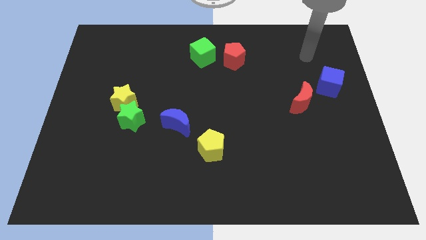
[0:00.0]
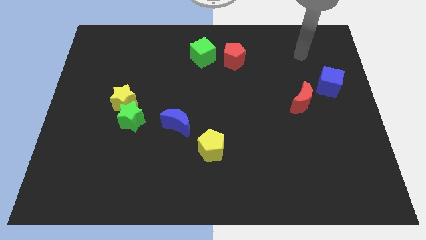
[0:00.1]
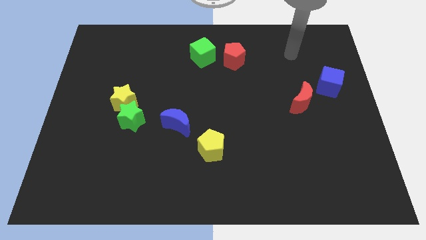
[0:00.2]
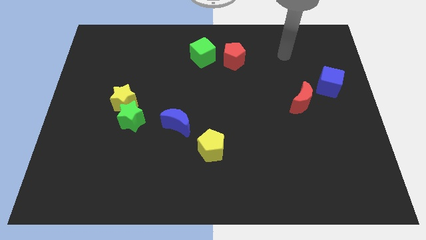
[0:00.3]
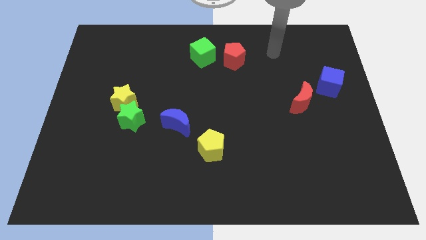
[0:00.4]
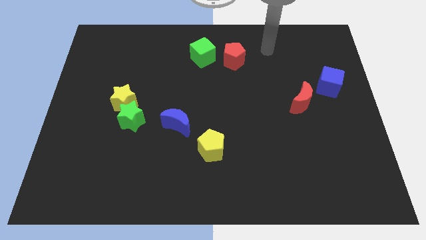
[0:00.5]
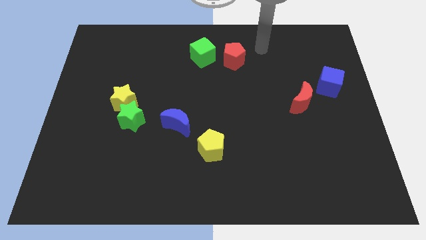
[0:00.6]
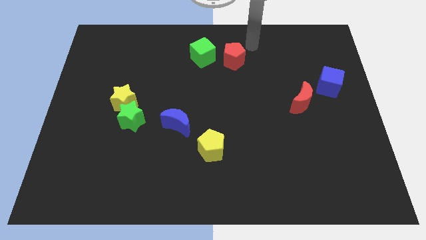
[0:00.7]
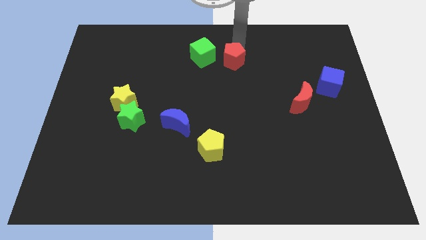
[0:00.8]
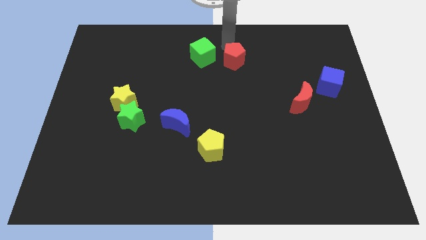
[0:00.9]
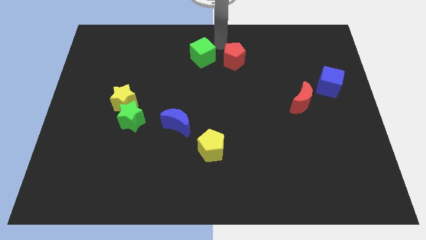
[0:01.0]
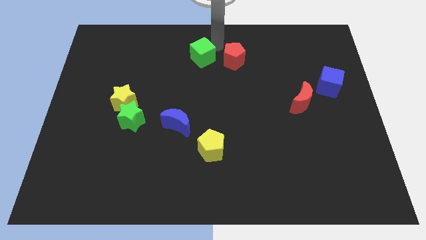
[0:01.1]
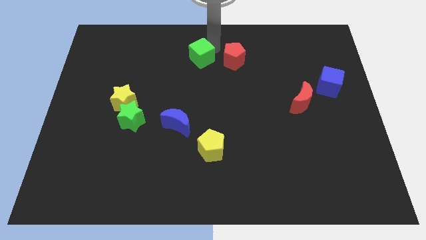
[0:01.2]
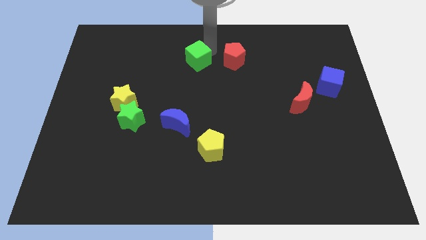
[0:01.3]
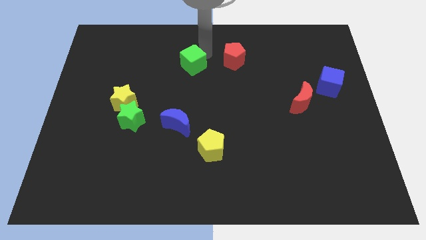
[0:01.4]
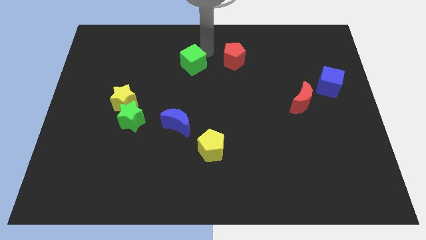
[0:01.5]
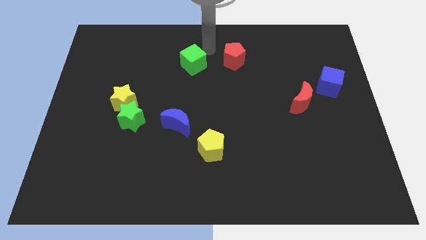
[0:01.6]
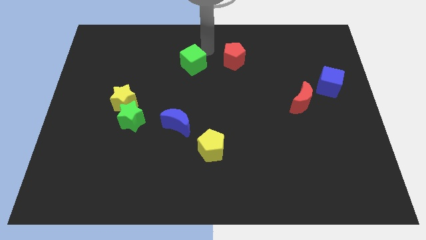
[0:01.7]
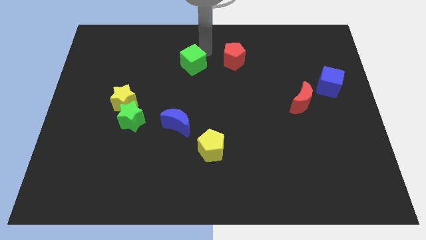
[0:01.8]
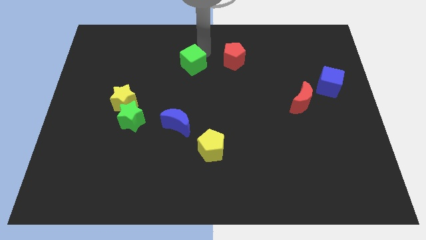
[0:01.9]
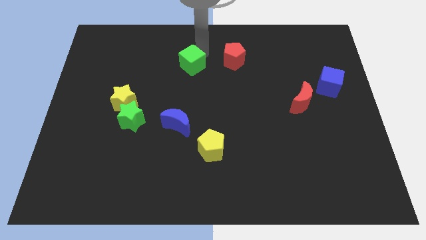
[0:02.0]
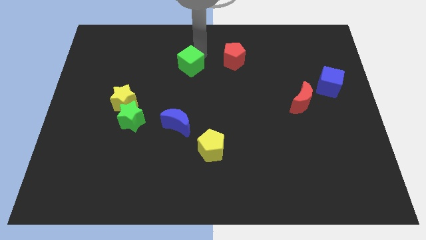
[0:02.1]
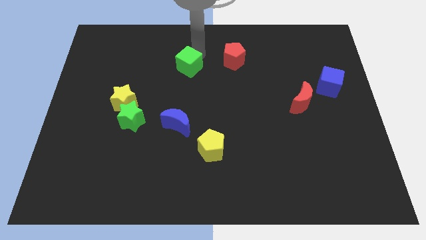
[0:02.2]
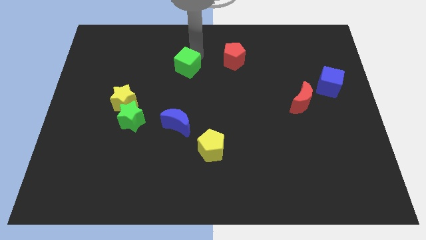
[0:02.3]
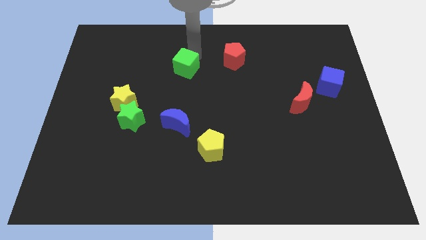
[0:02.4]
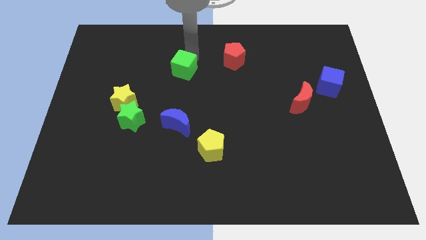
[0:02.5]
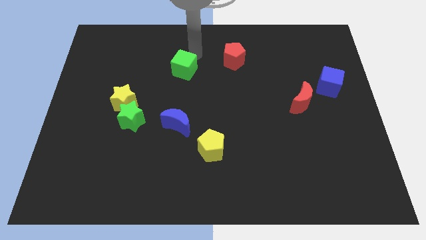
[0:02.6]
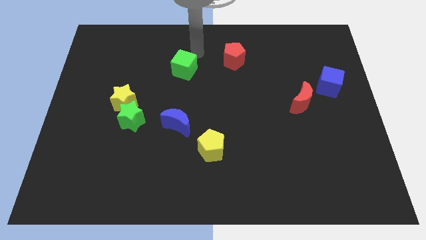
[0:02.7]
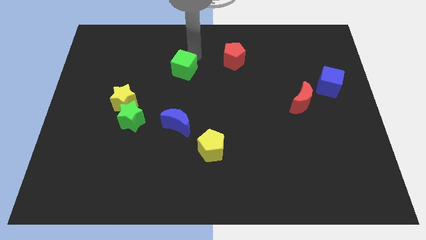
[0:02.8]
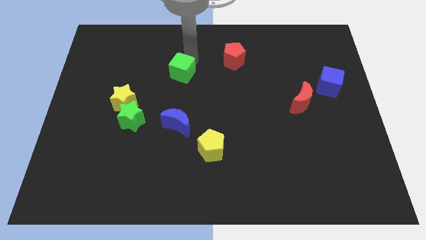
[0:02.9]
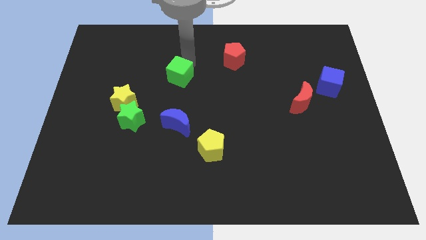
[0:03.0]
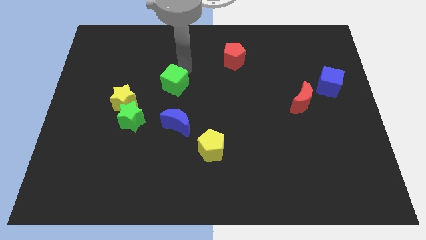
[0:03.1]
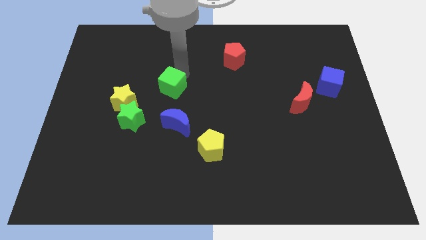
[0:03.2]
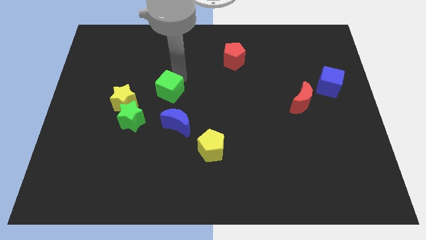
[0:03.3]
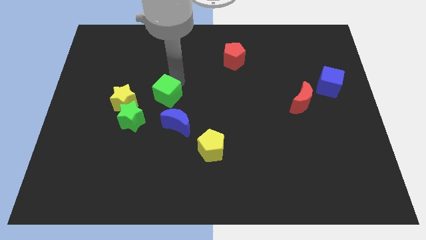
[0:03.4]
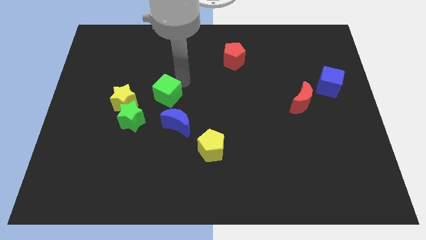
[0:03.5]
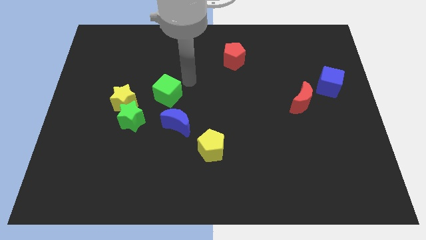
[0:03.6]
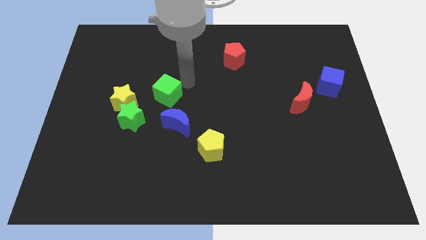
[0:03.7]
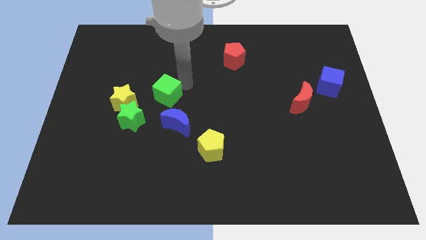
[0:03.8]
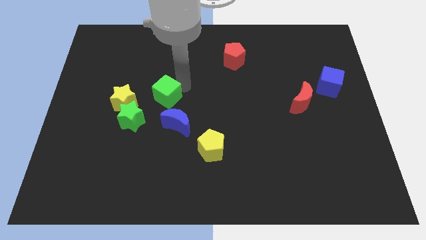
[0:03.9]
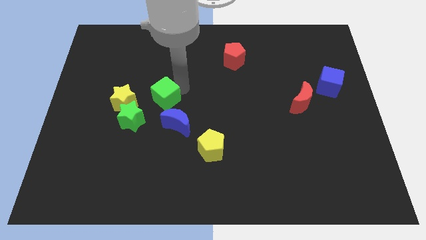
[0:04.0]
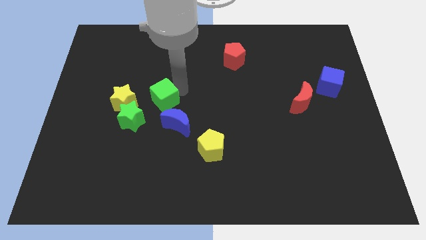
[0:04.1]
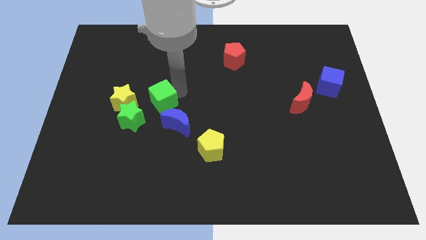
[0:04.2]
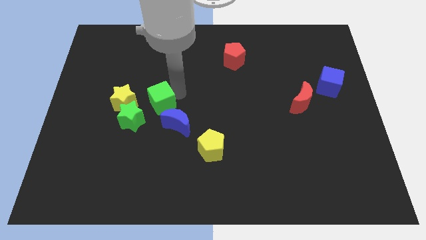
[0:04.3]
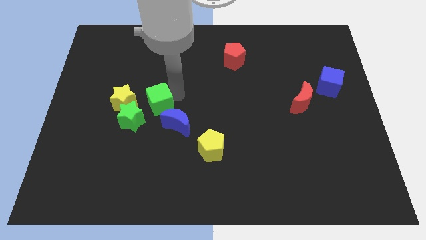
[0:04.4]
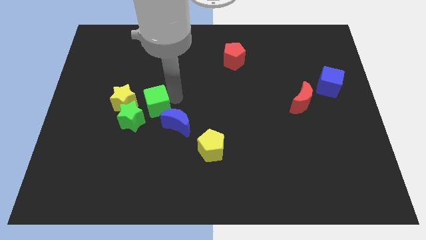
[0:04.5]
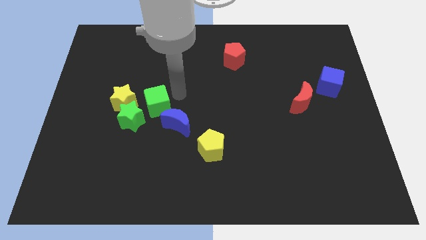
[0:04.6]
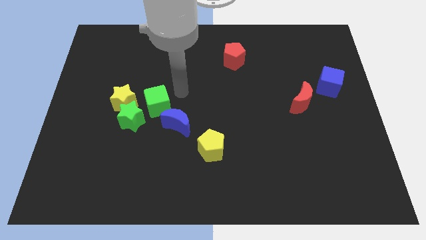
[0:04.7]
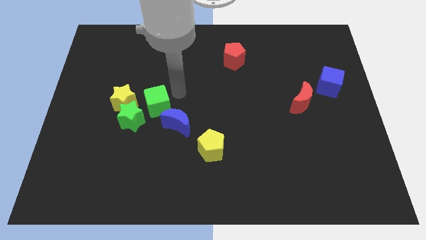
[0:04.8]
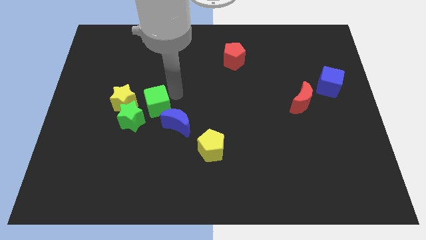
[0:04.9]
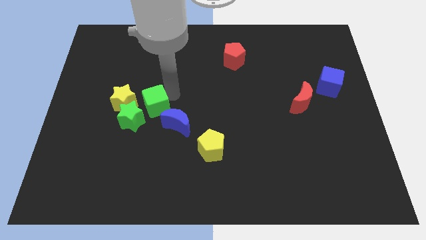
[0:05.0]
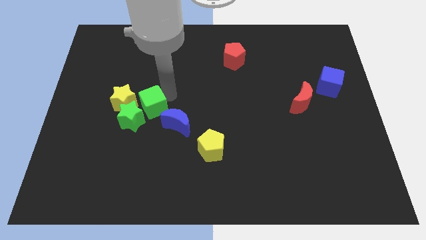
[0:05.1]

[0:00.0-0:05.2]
move the green cube to the green star

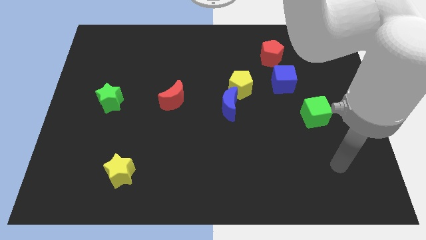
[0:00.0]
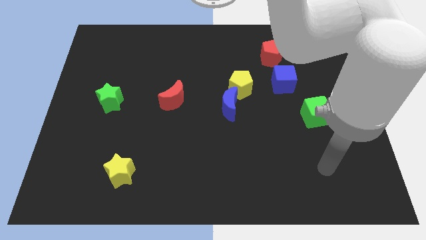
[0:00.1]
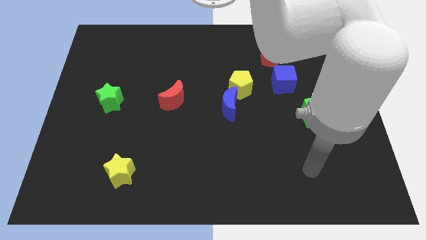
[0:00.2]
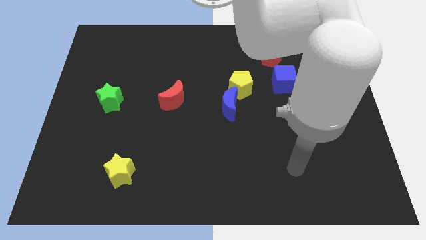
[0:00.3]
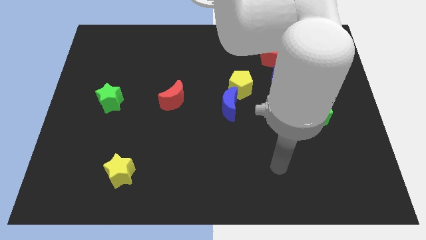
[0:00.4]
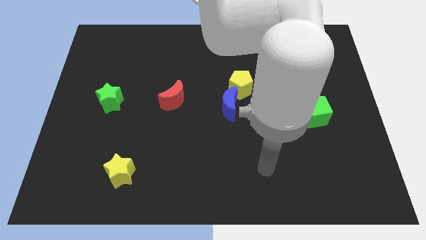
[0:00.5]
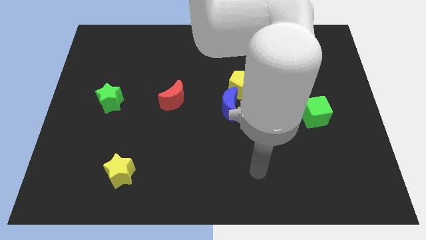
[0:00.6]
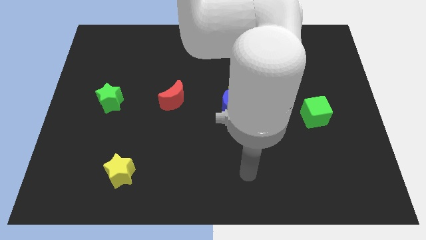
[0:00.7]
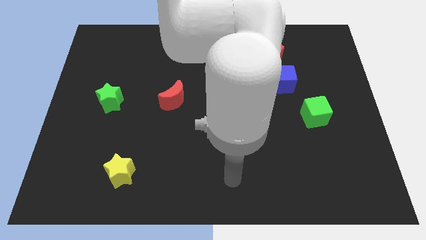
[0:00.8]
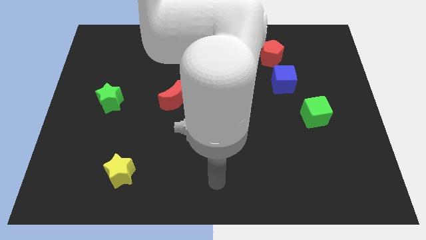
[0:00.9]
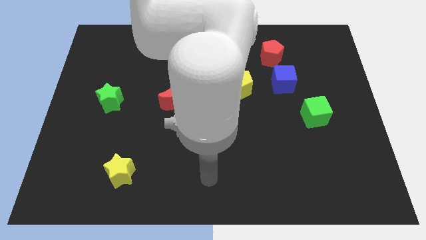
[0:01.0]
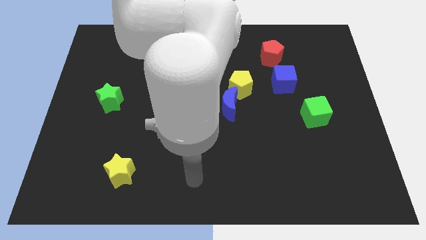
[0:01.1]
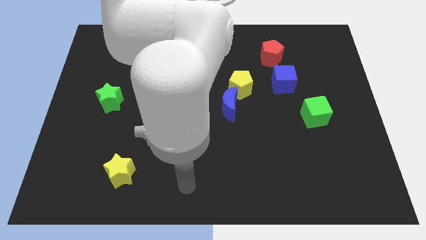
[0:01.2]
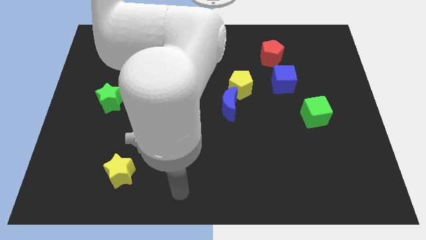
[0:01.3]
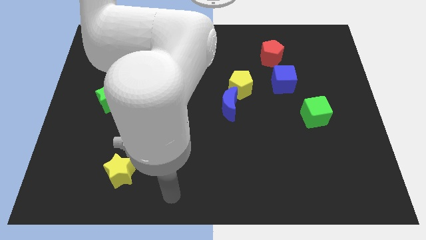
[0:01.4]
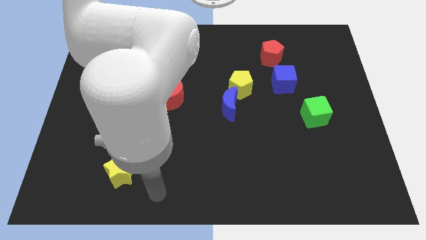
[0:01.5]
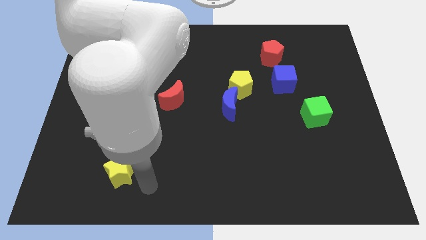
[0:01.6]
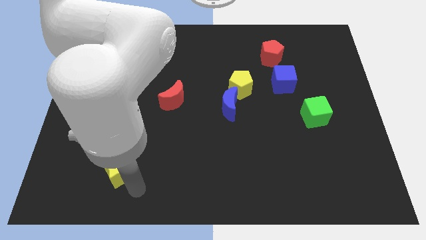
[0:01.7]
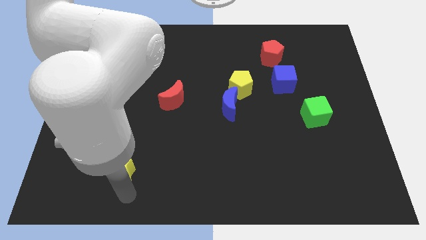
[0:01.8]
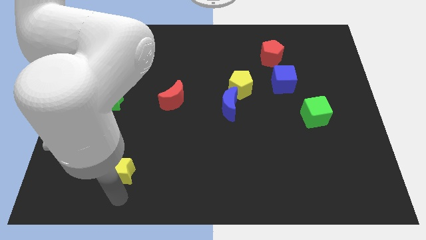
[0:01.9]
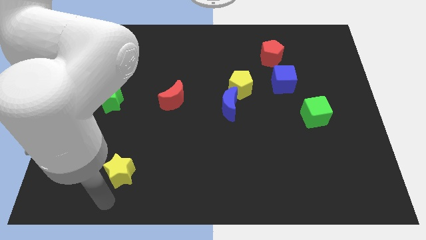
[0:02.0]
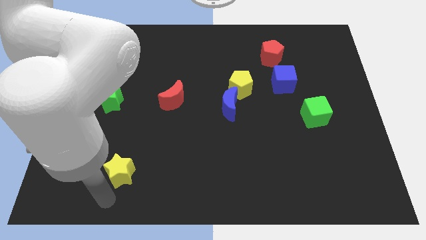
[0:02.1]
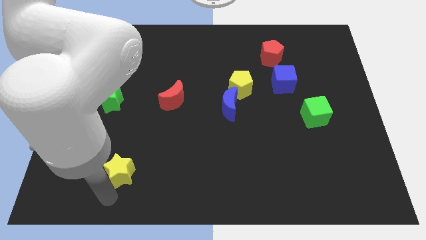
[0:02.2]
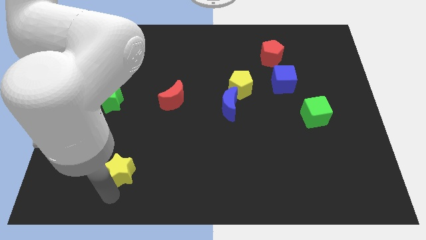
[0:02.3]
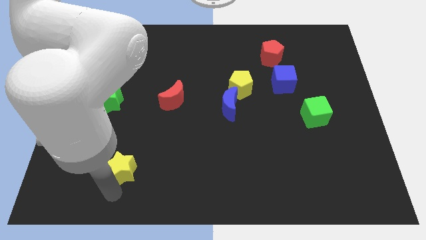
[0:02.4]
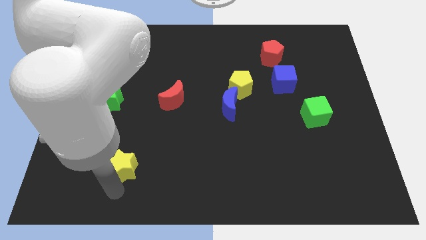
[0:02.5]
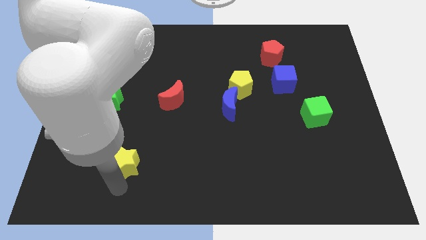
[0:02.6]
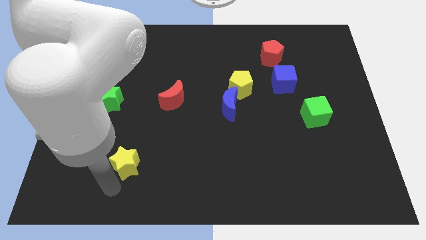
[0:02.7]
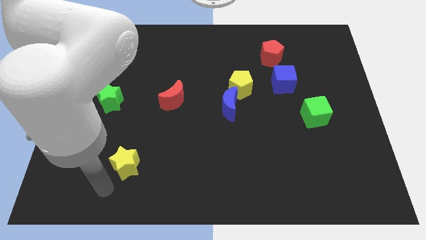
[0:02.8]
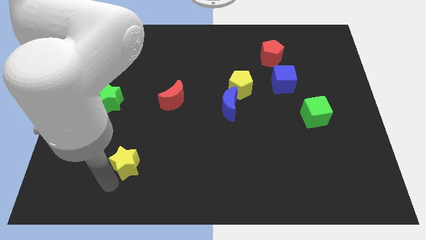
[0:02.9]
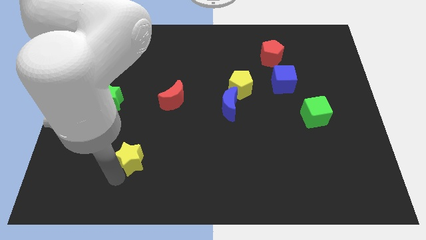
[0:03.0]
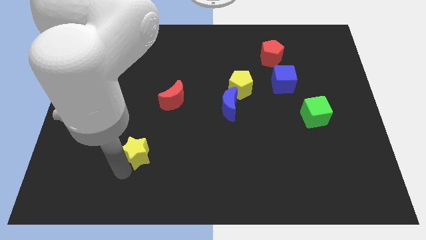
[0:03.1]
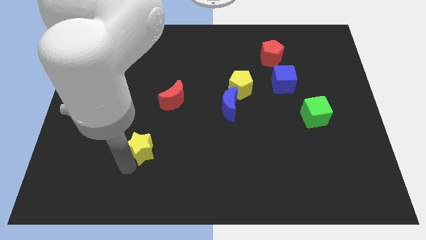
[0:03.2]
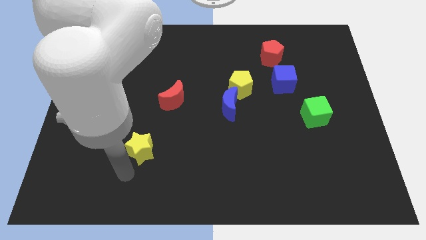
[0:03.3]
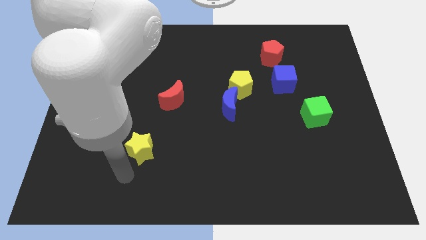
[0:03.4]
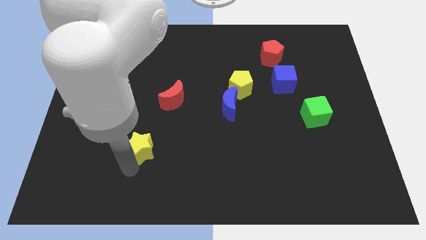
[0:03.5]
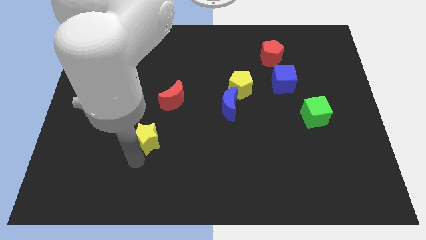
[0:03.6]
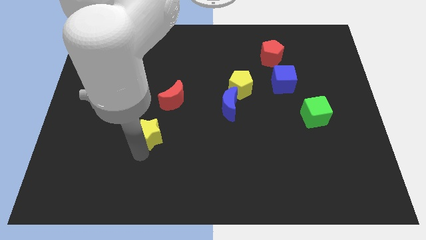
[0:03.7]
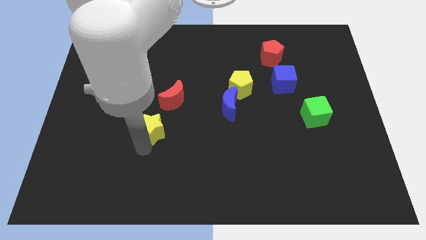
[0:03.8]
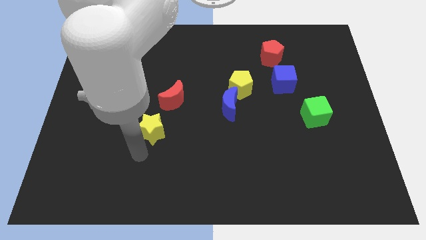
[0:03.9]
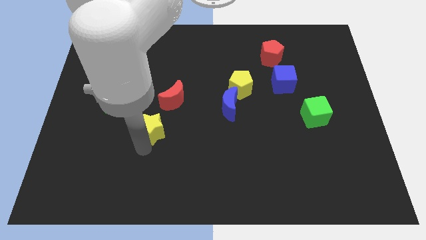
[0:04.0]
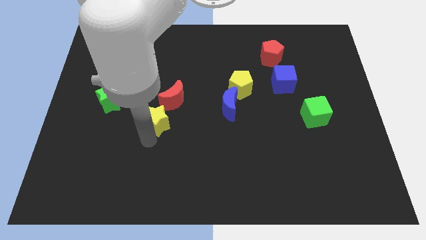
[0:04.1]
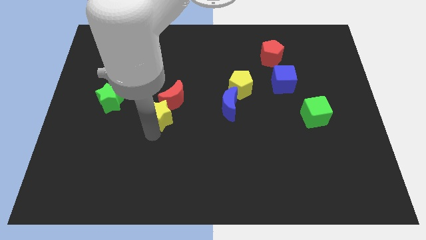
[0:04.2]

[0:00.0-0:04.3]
slide the yellow star close to the red moon
